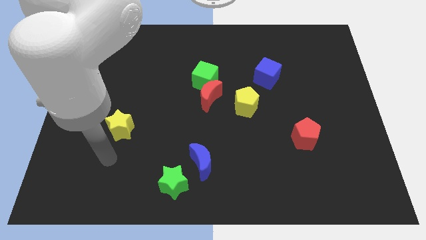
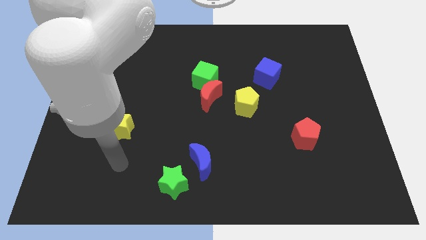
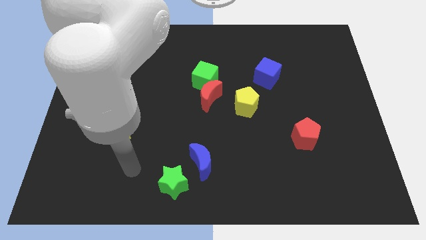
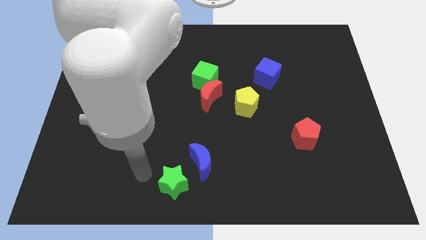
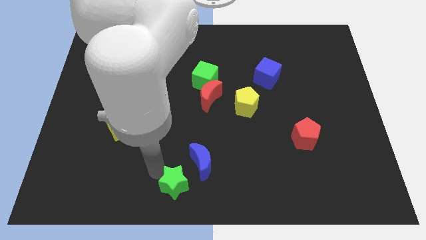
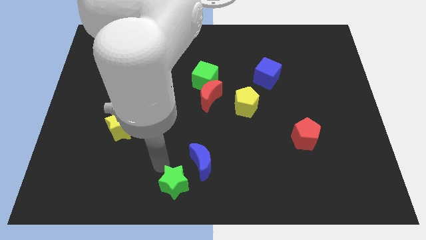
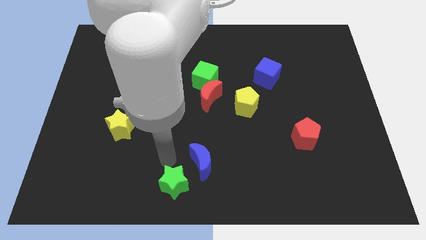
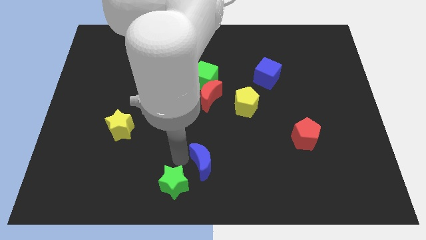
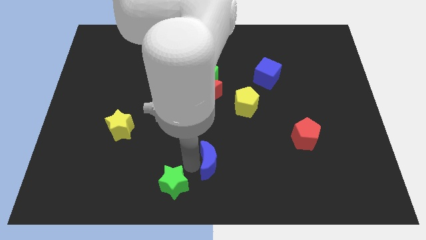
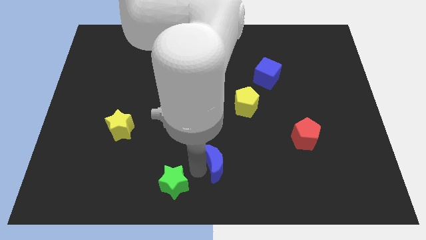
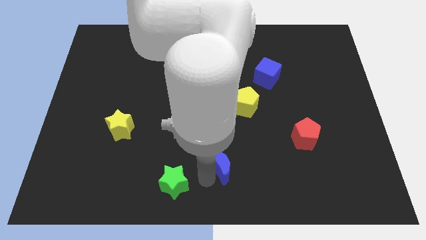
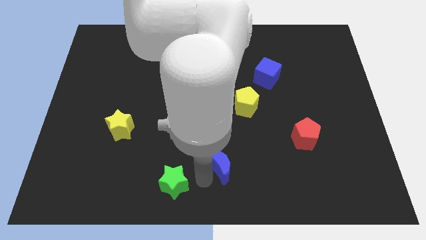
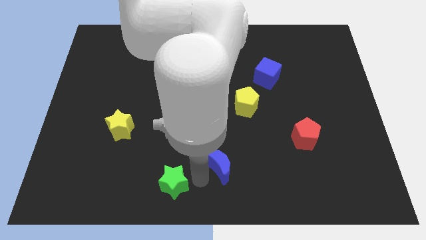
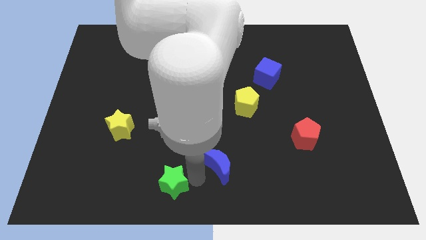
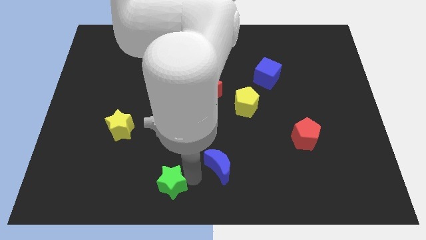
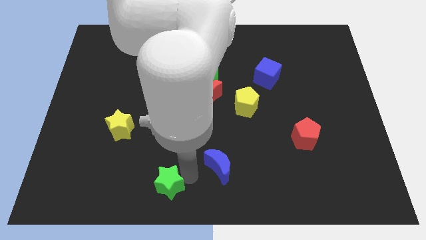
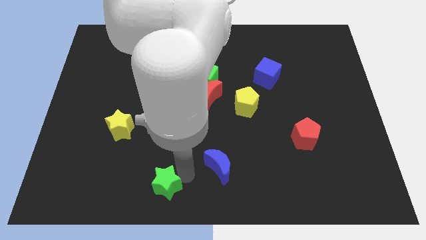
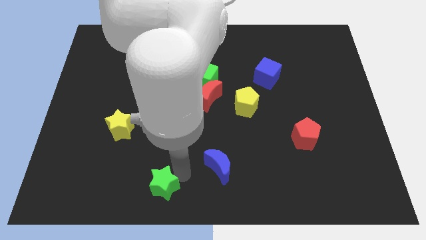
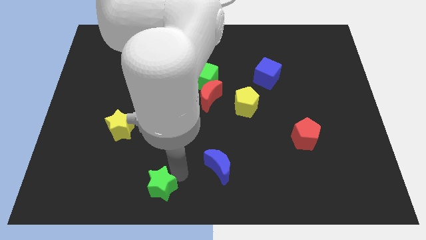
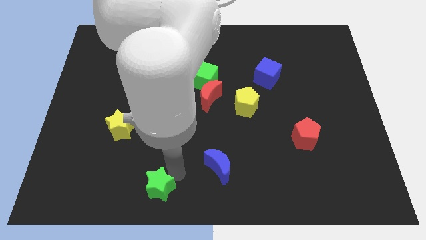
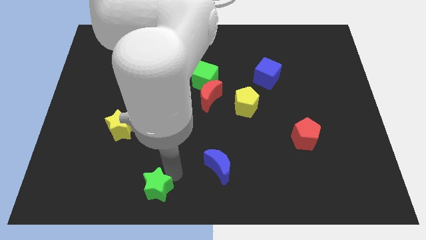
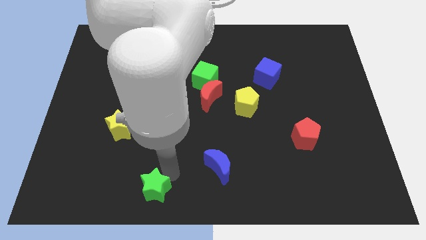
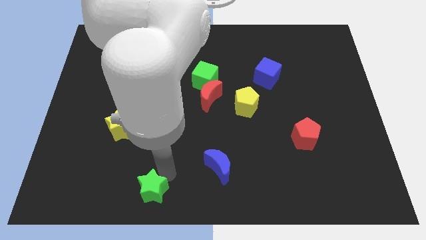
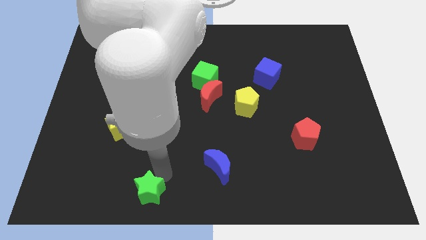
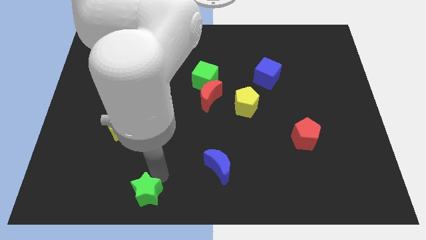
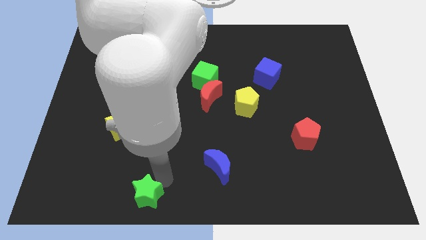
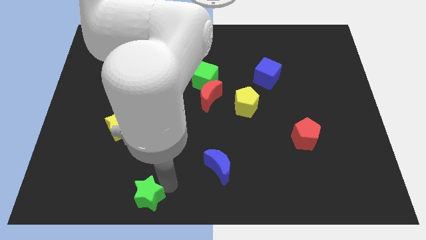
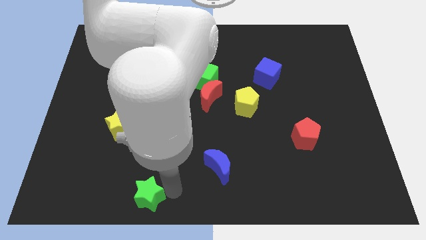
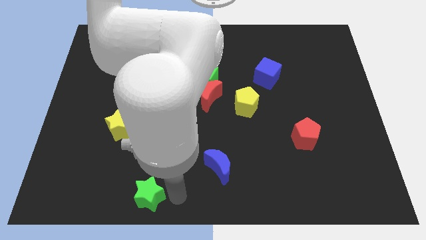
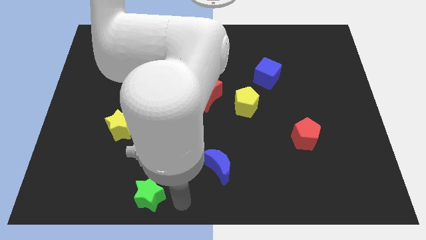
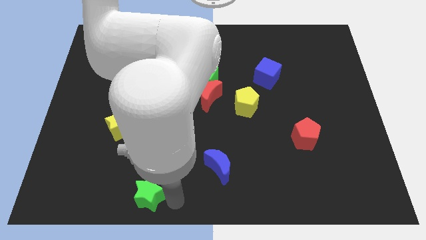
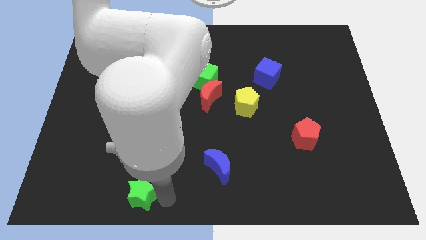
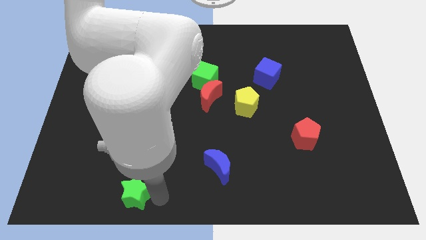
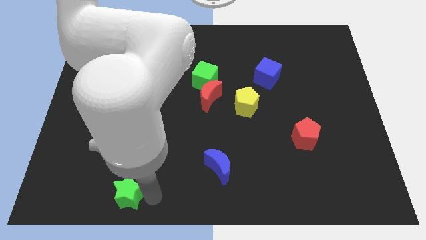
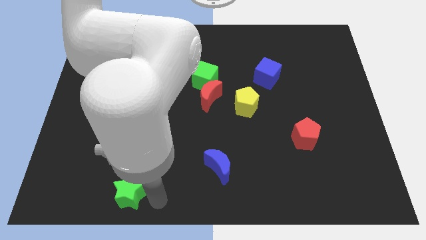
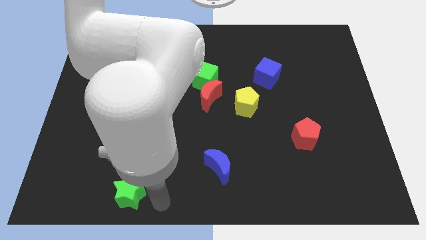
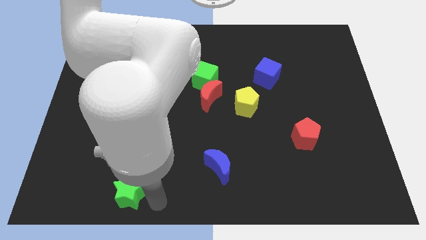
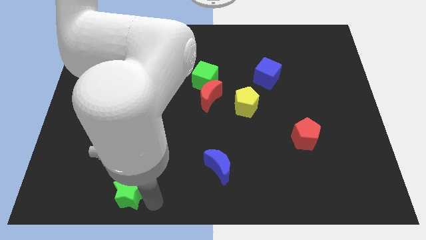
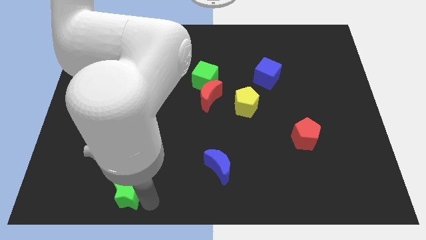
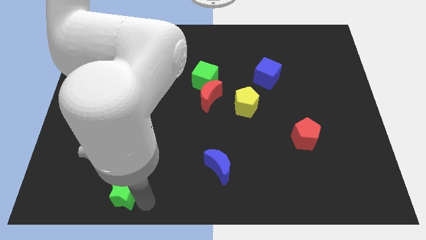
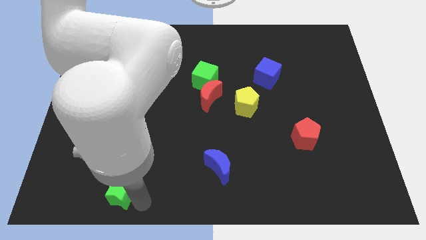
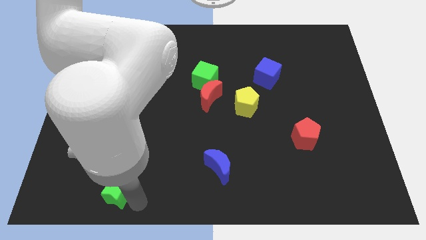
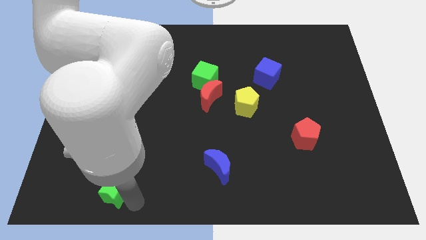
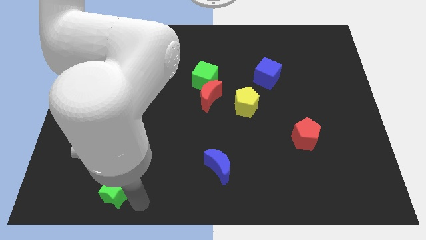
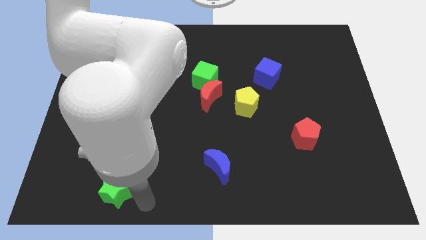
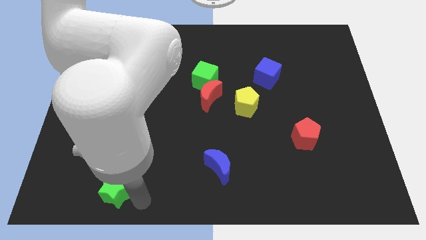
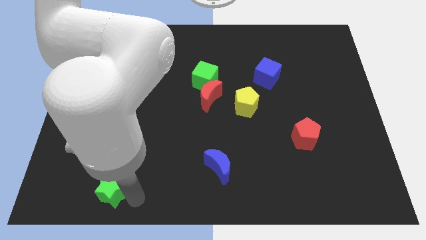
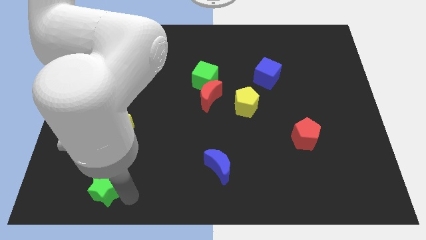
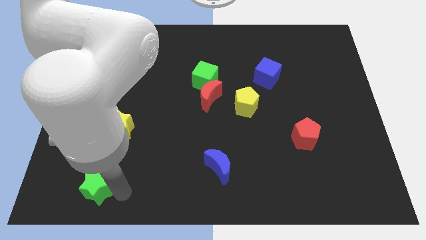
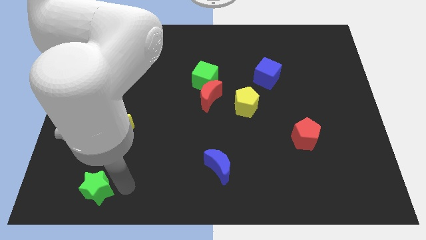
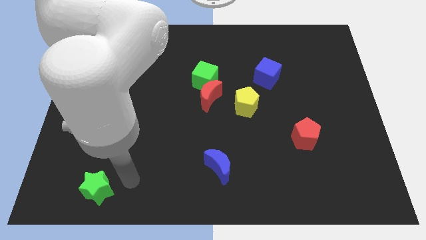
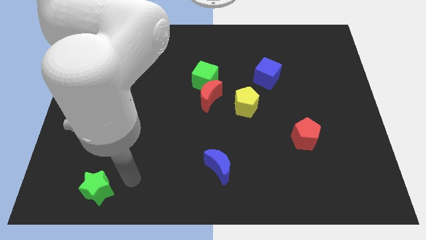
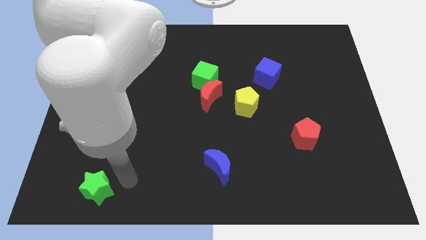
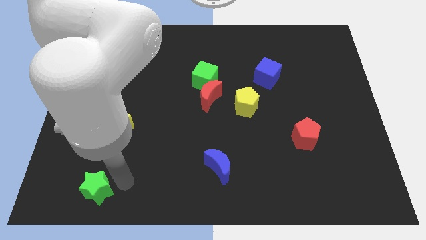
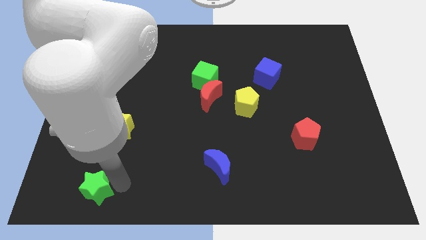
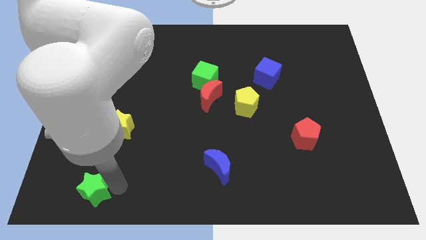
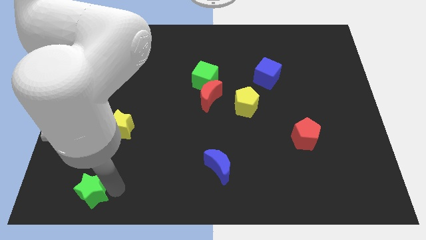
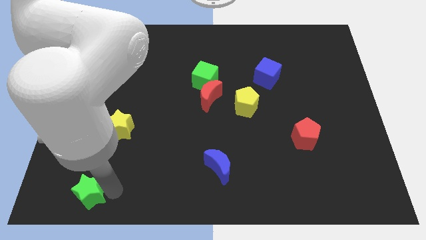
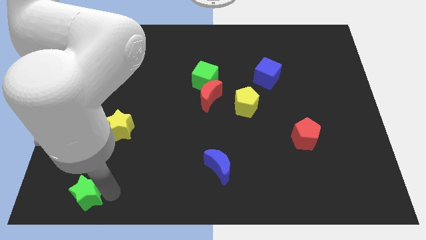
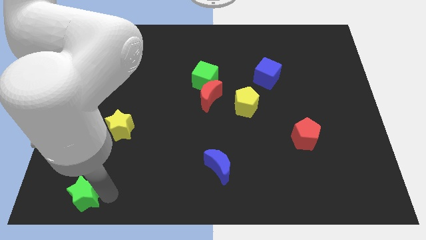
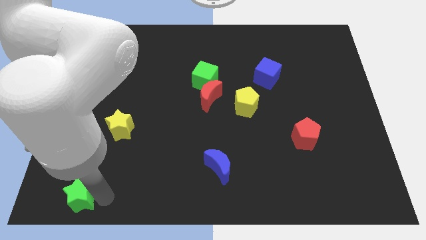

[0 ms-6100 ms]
slide the green star to the bottom left of the board

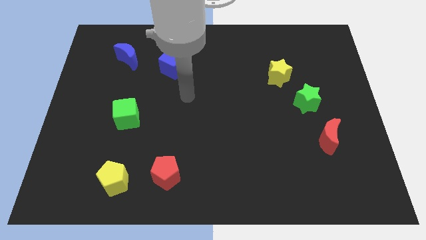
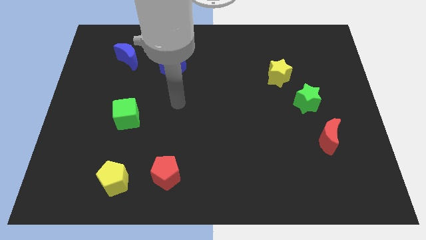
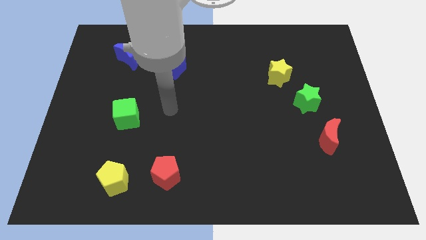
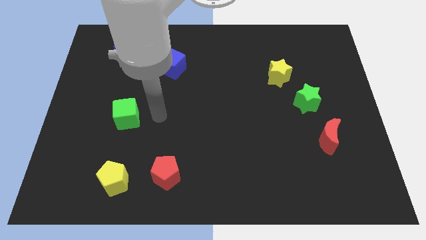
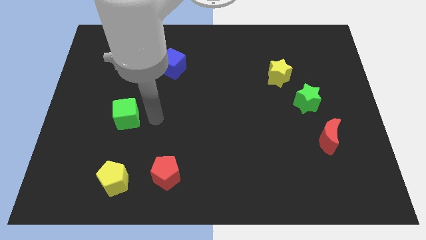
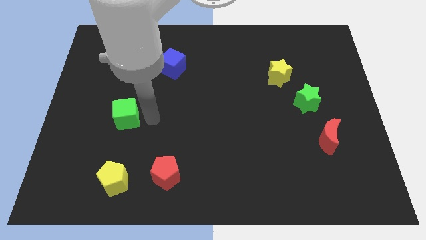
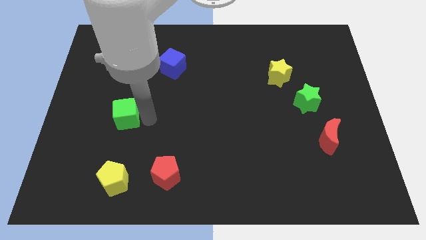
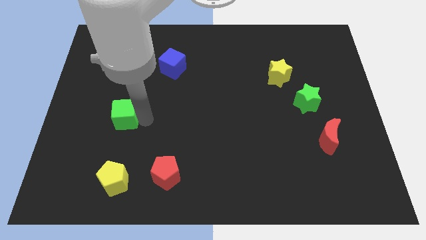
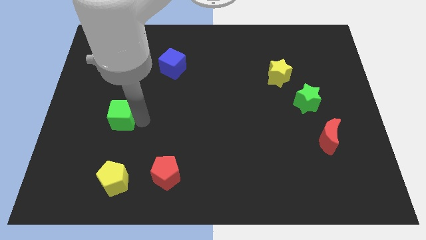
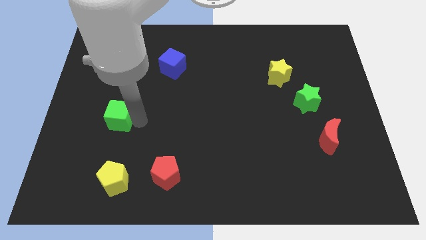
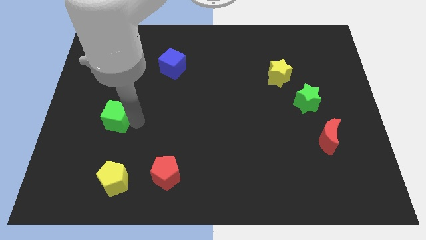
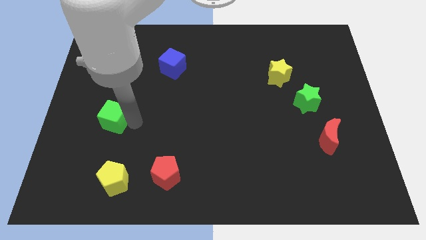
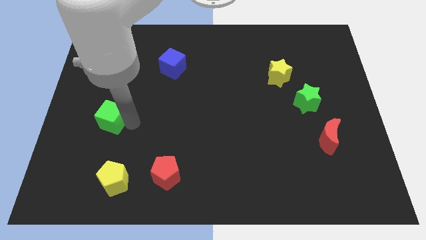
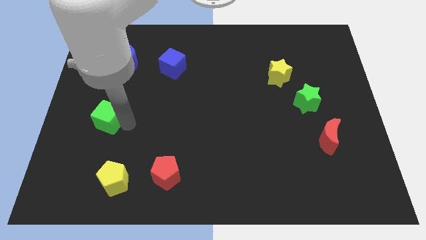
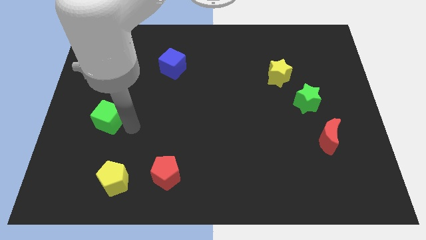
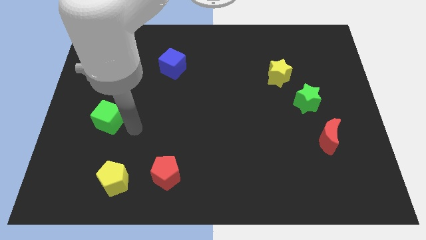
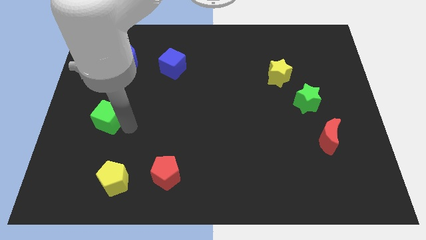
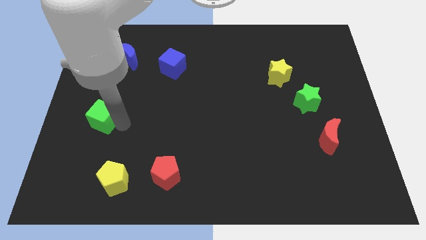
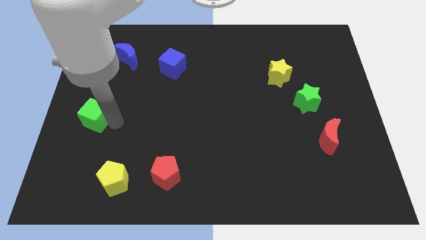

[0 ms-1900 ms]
put the green cube to the center left
